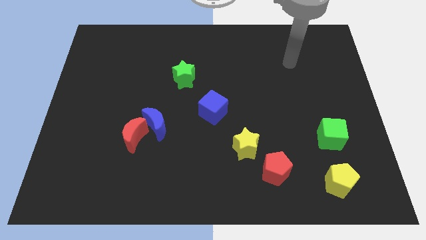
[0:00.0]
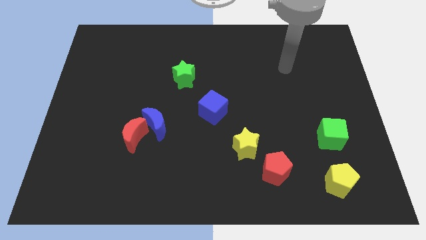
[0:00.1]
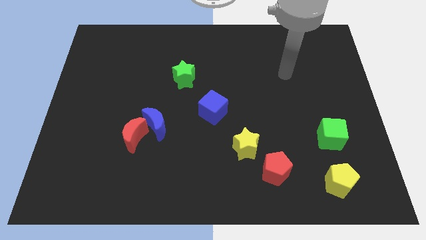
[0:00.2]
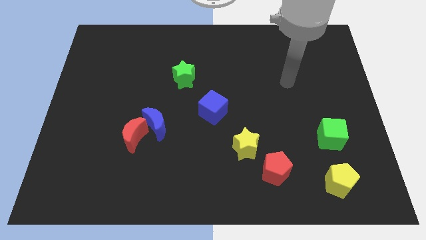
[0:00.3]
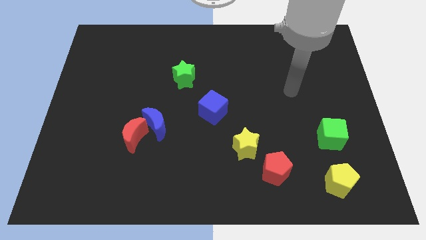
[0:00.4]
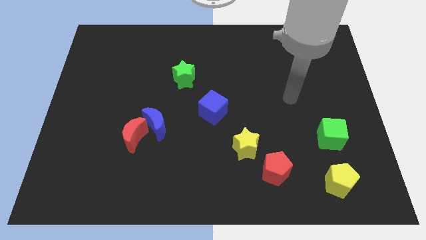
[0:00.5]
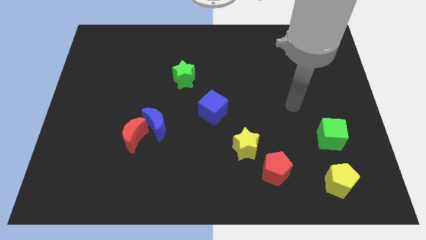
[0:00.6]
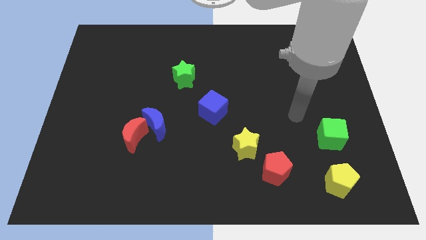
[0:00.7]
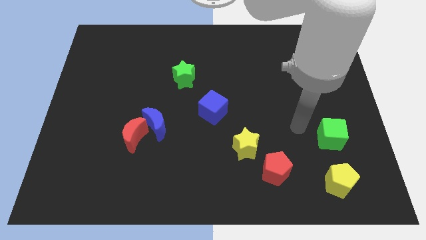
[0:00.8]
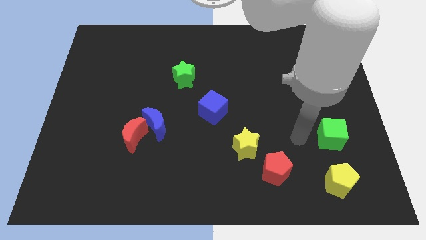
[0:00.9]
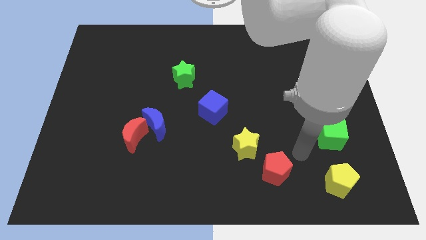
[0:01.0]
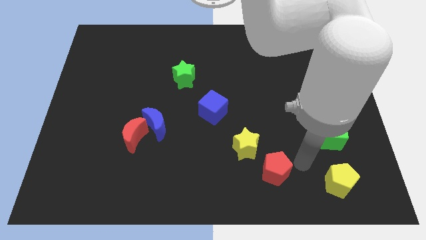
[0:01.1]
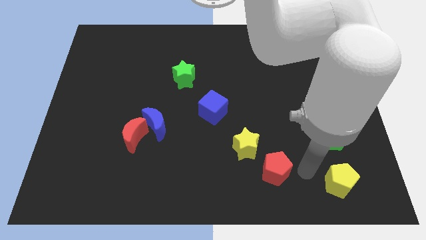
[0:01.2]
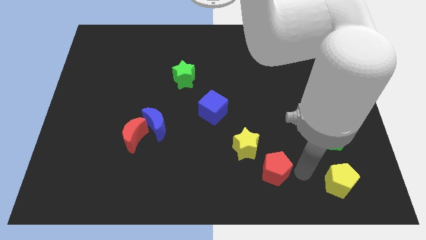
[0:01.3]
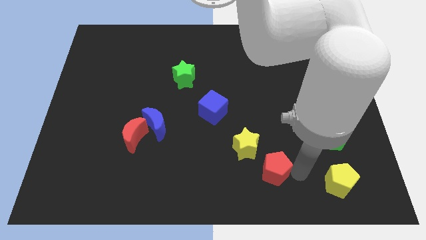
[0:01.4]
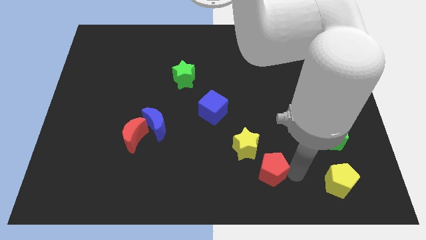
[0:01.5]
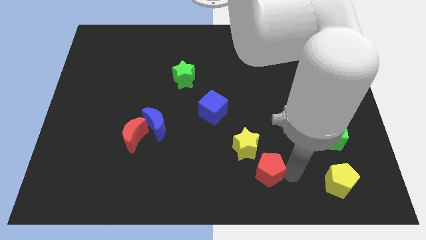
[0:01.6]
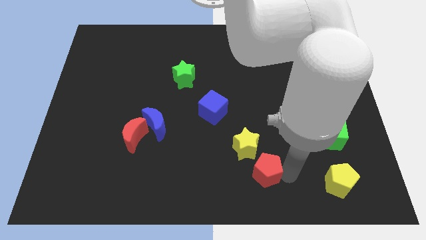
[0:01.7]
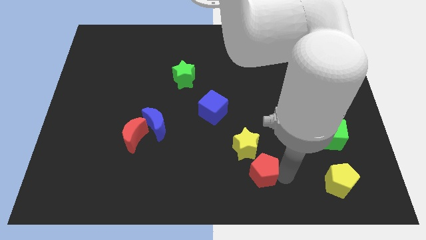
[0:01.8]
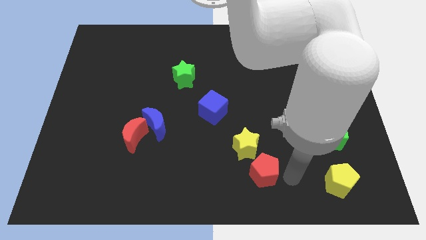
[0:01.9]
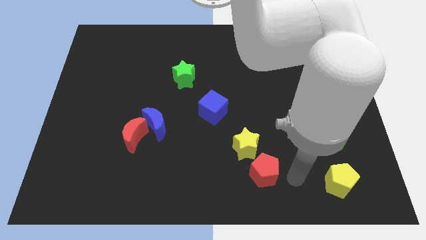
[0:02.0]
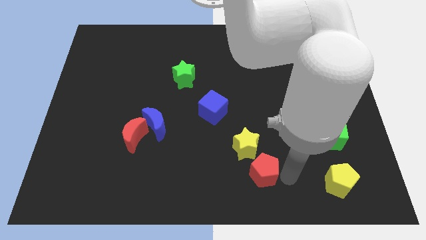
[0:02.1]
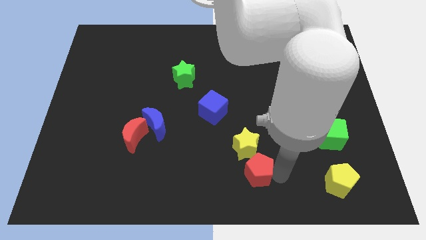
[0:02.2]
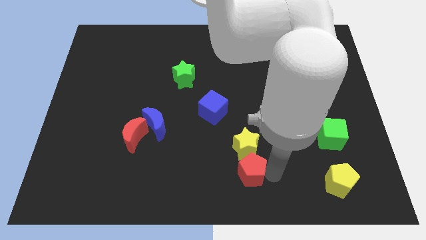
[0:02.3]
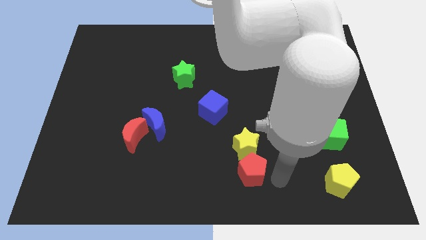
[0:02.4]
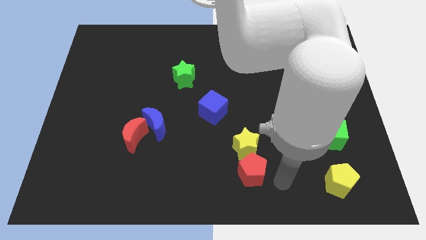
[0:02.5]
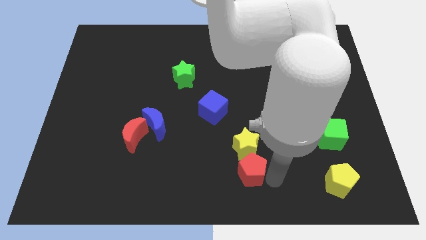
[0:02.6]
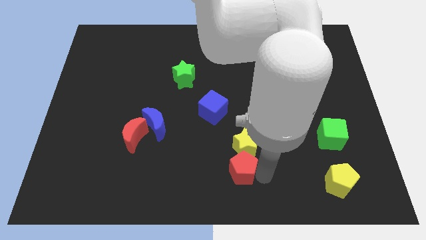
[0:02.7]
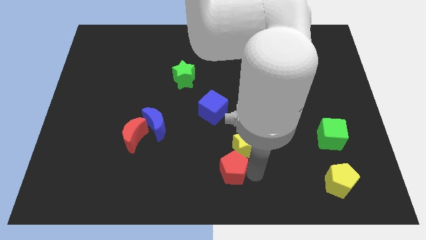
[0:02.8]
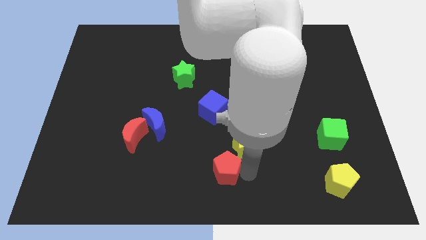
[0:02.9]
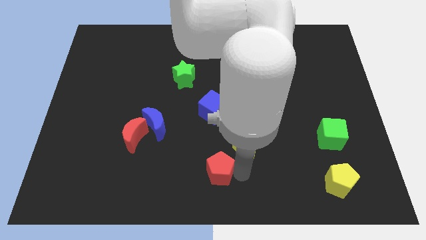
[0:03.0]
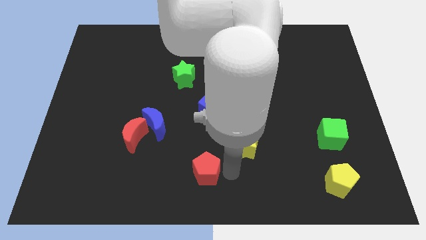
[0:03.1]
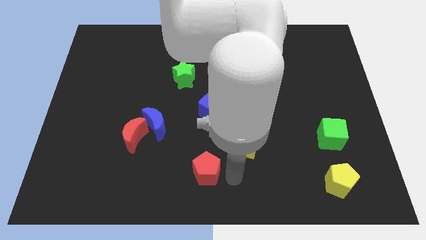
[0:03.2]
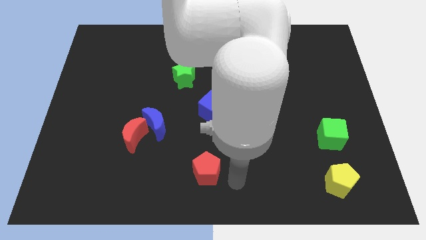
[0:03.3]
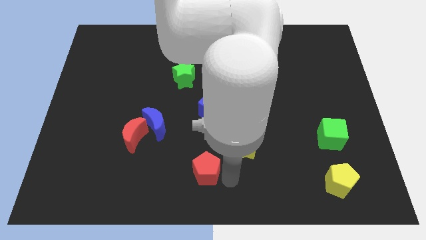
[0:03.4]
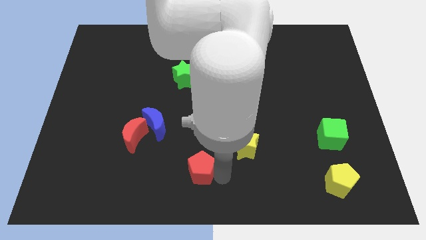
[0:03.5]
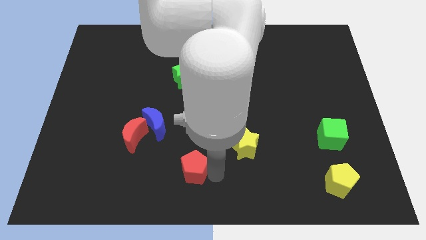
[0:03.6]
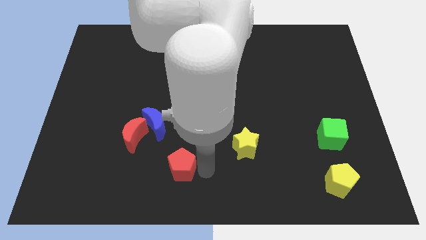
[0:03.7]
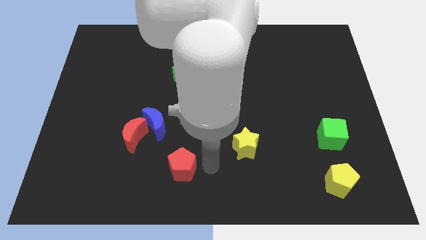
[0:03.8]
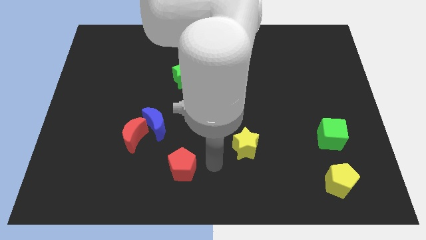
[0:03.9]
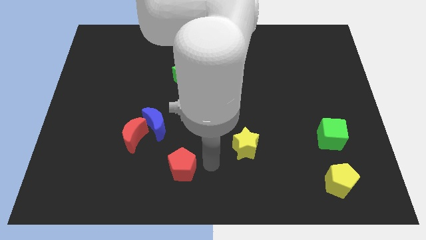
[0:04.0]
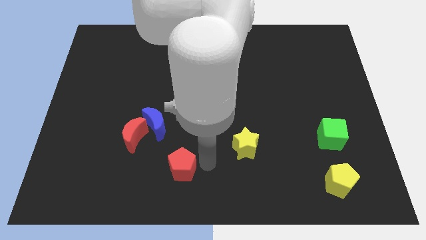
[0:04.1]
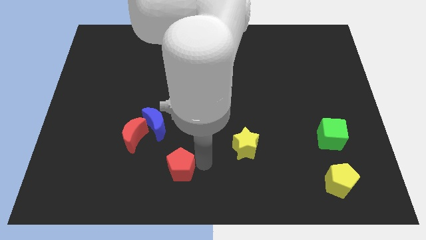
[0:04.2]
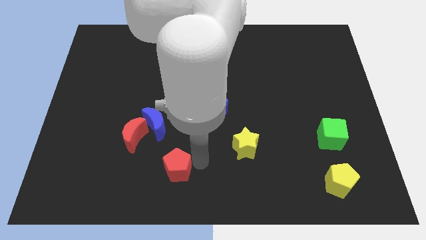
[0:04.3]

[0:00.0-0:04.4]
slide the red pentagon to the left

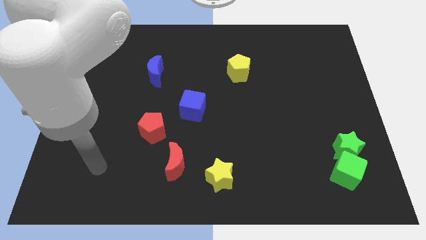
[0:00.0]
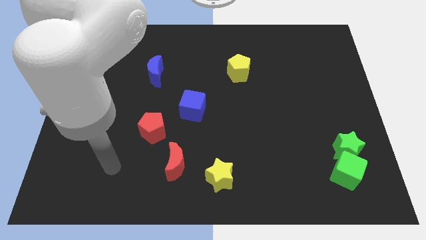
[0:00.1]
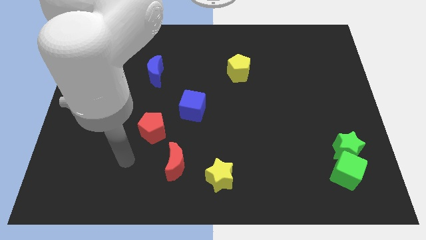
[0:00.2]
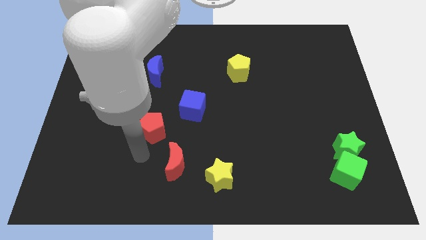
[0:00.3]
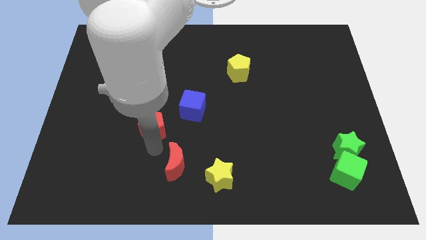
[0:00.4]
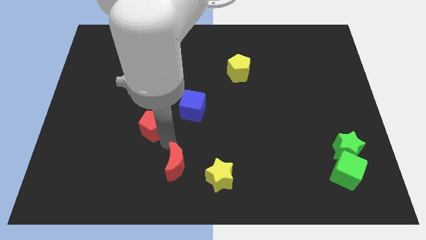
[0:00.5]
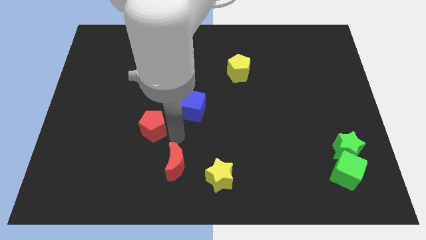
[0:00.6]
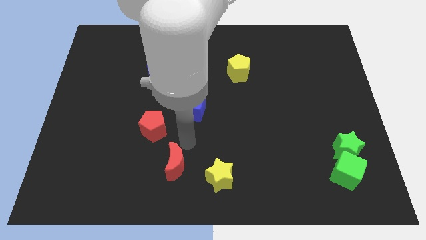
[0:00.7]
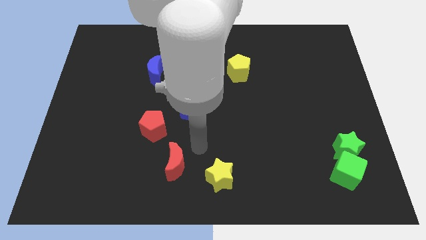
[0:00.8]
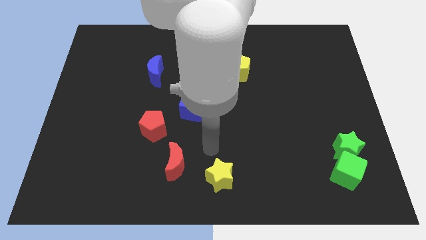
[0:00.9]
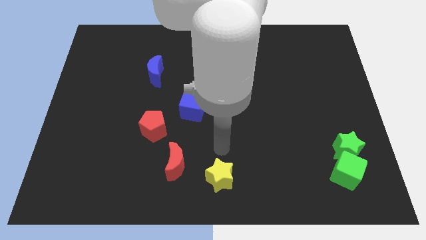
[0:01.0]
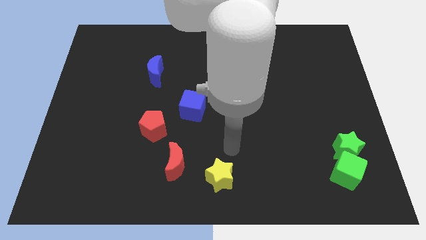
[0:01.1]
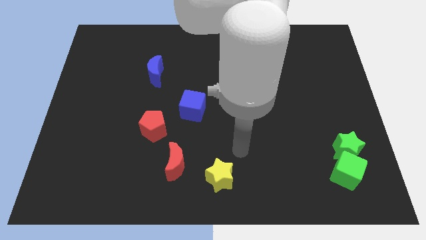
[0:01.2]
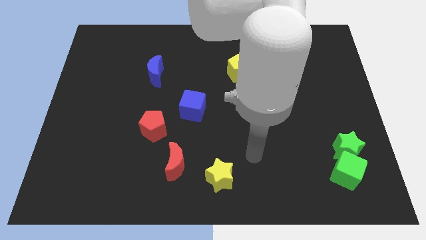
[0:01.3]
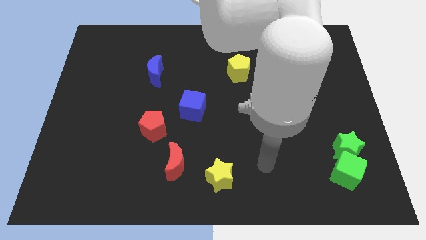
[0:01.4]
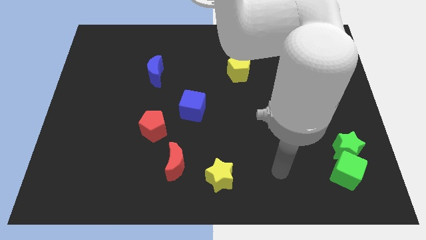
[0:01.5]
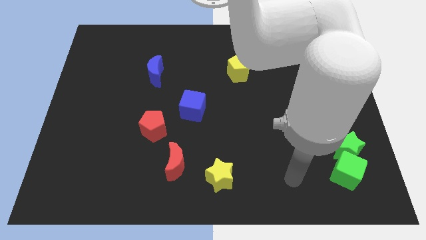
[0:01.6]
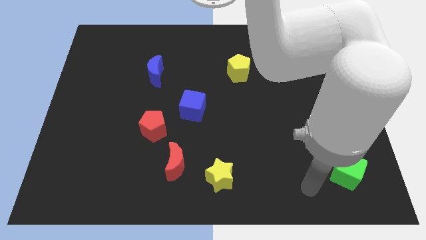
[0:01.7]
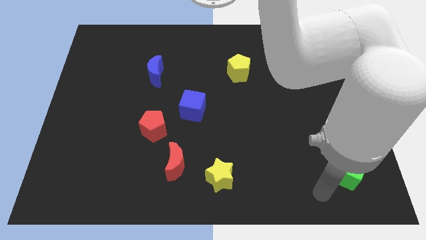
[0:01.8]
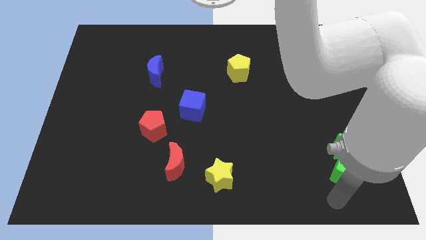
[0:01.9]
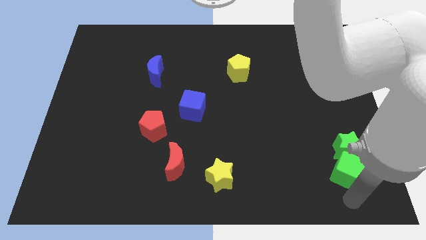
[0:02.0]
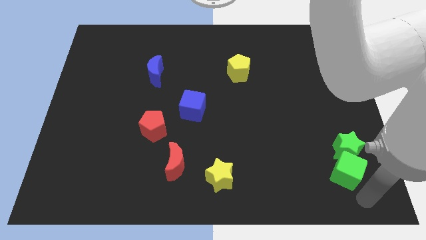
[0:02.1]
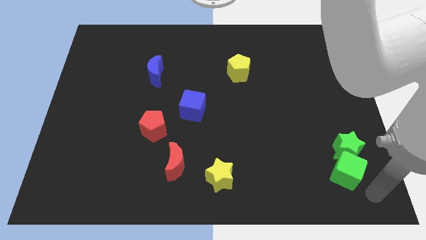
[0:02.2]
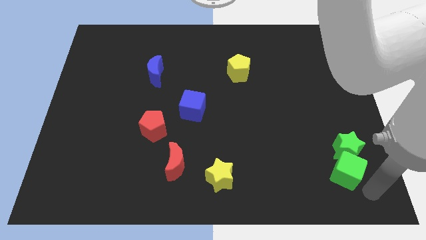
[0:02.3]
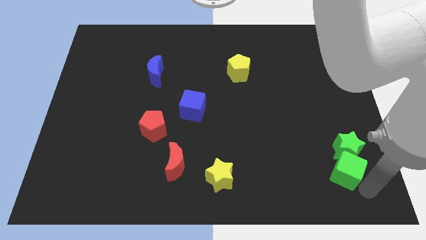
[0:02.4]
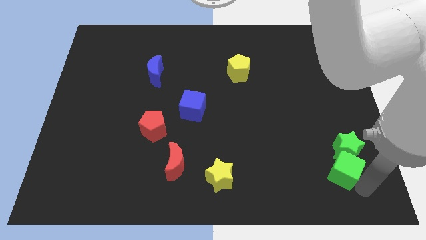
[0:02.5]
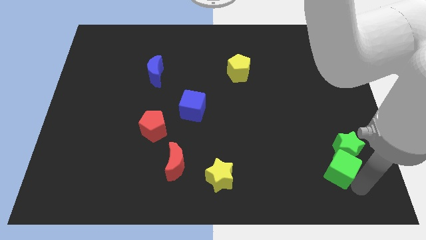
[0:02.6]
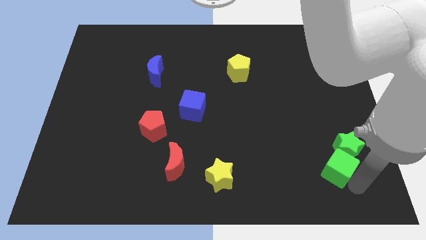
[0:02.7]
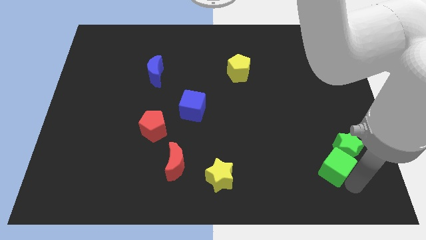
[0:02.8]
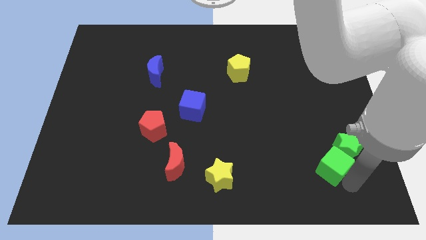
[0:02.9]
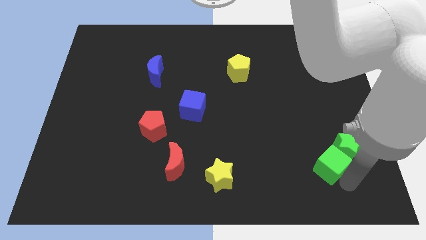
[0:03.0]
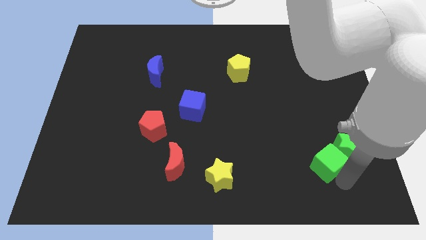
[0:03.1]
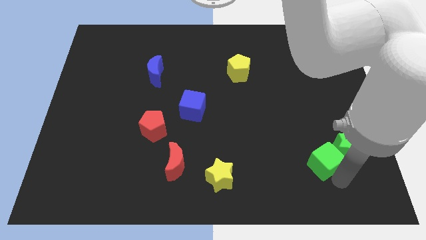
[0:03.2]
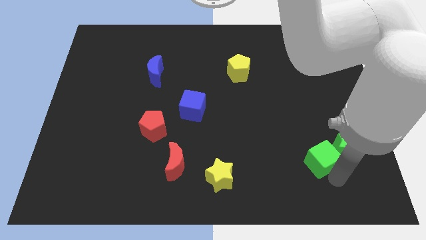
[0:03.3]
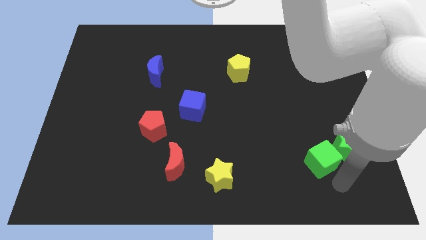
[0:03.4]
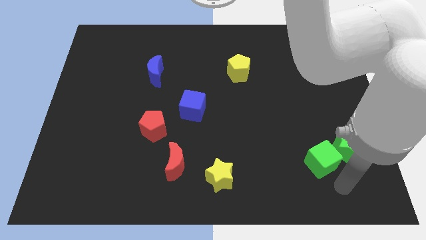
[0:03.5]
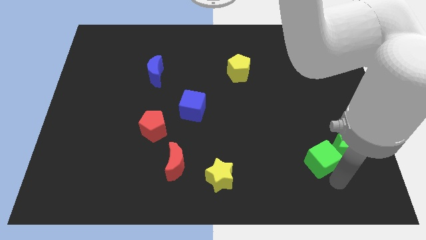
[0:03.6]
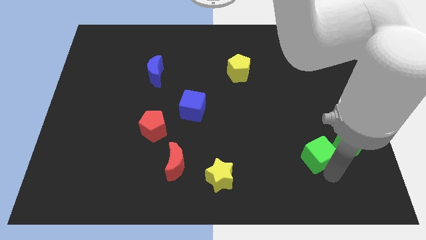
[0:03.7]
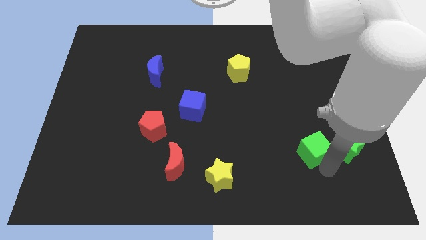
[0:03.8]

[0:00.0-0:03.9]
push the green cube upwards and to the left a bit
